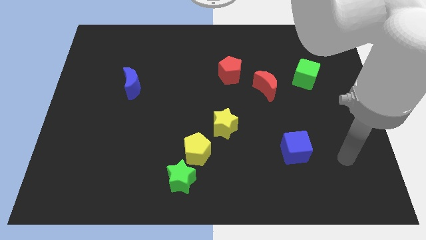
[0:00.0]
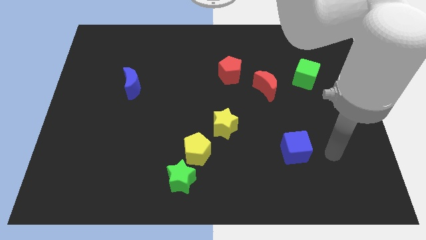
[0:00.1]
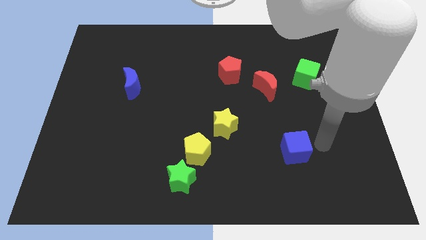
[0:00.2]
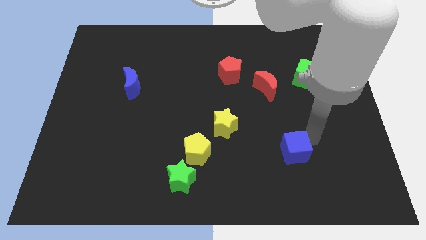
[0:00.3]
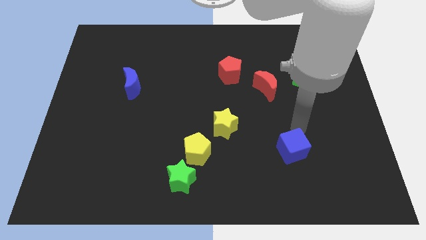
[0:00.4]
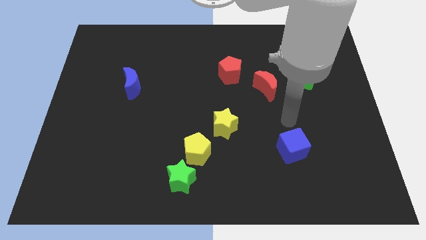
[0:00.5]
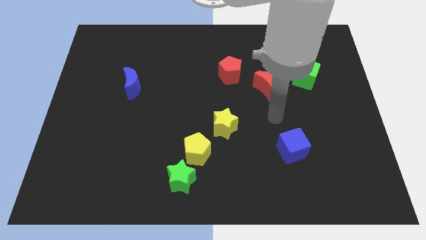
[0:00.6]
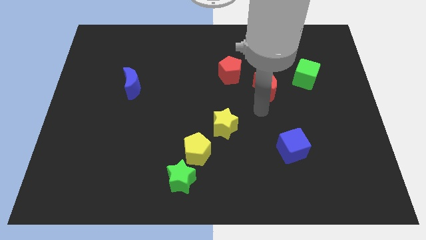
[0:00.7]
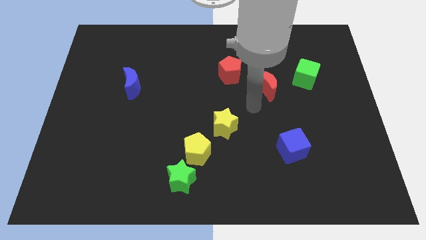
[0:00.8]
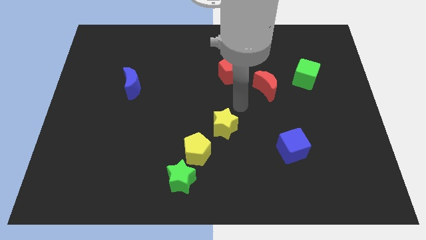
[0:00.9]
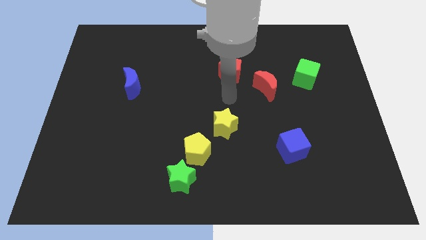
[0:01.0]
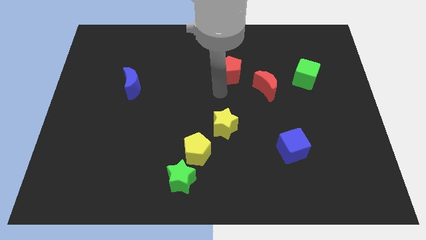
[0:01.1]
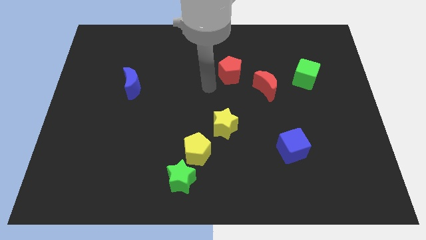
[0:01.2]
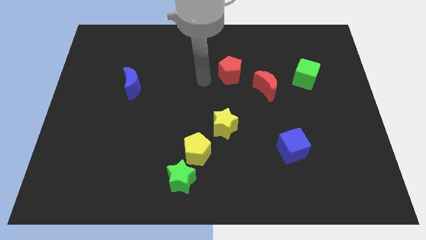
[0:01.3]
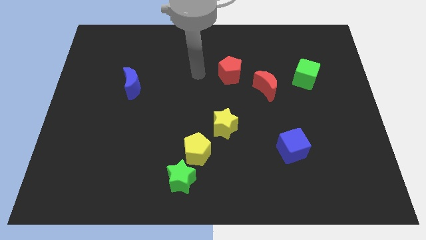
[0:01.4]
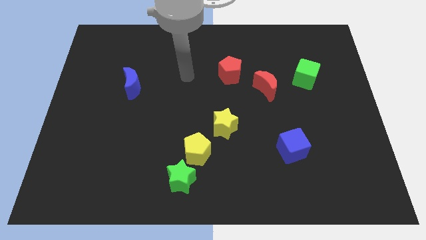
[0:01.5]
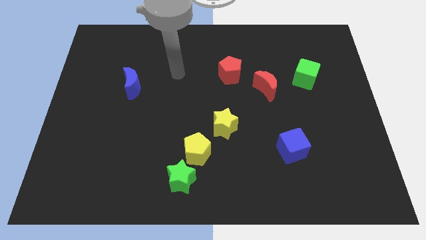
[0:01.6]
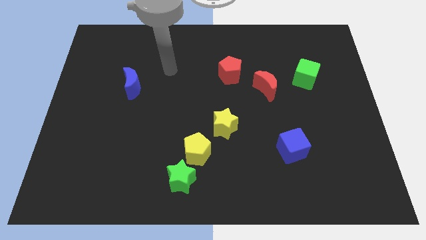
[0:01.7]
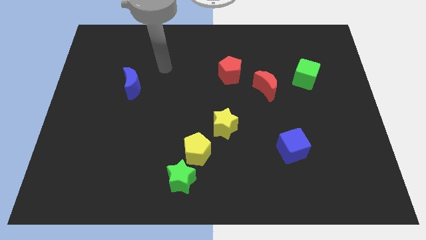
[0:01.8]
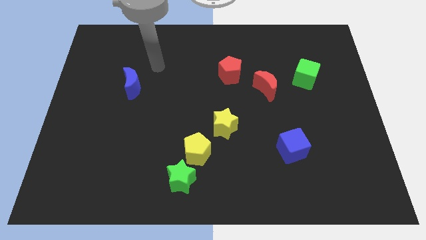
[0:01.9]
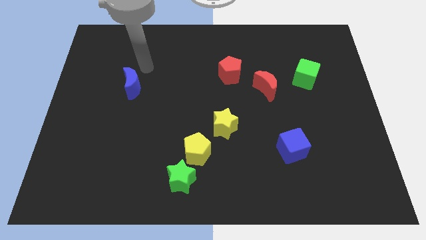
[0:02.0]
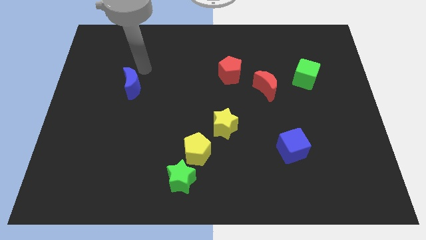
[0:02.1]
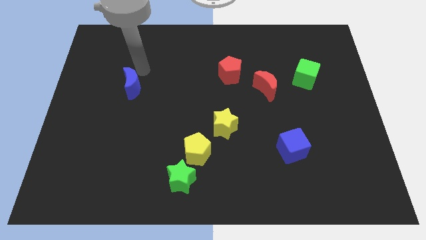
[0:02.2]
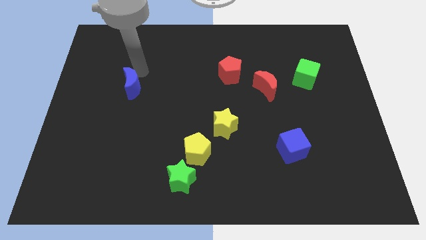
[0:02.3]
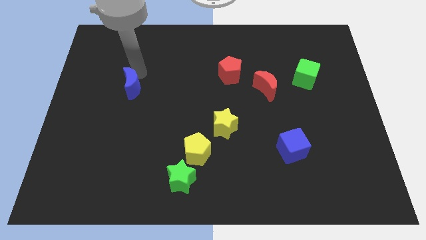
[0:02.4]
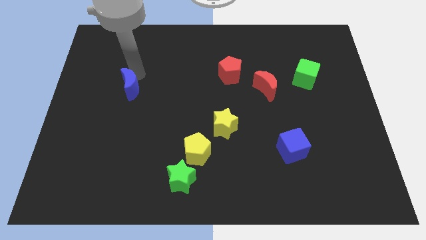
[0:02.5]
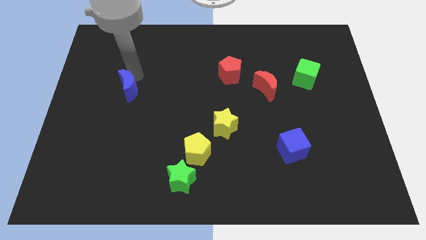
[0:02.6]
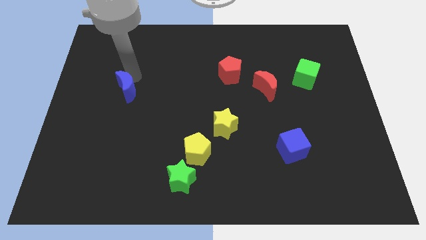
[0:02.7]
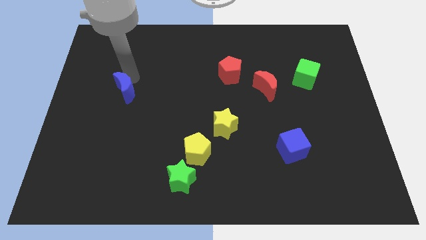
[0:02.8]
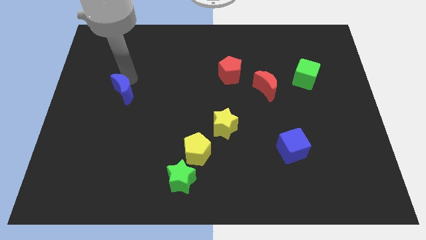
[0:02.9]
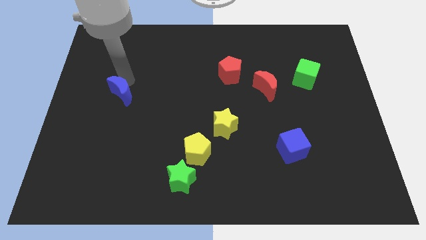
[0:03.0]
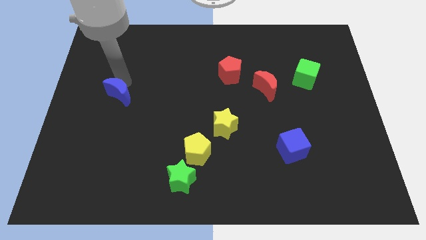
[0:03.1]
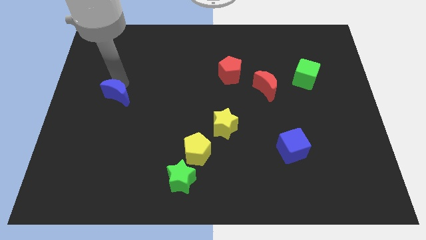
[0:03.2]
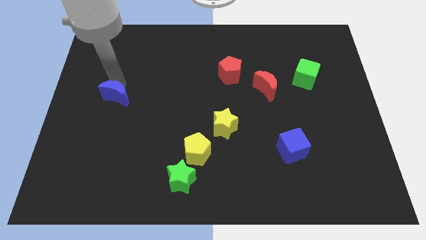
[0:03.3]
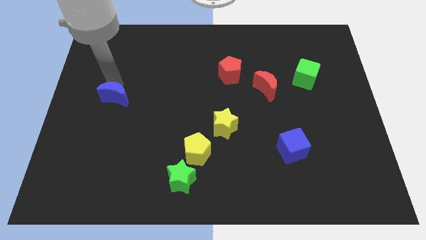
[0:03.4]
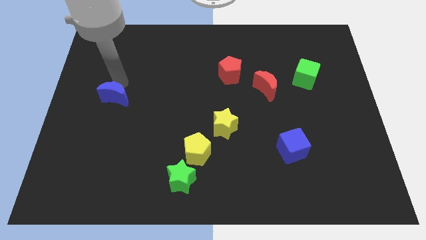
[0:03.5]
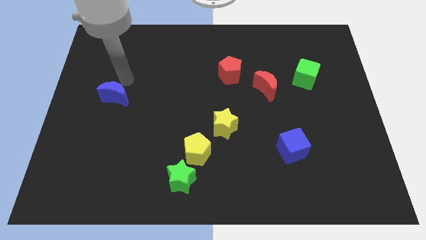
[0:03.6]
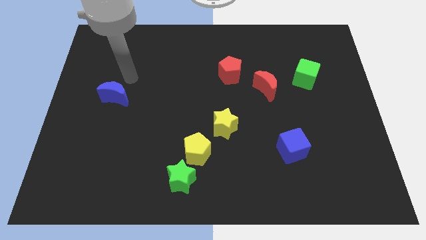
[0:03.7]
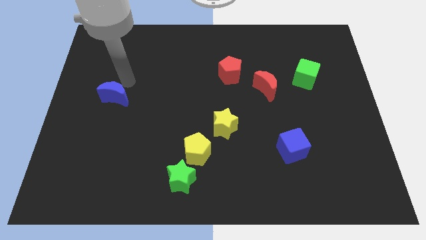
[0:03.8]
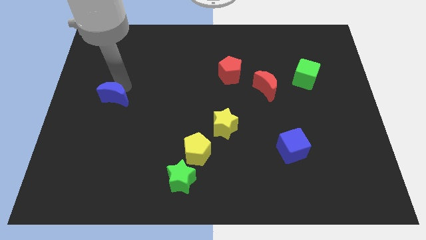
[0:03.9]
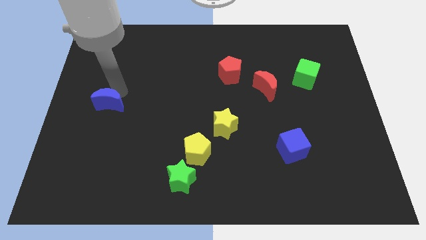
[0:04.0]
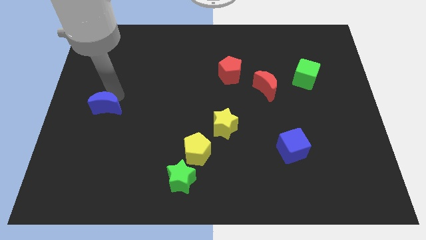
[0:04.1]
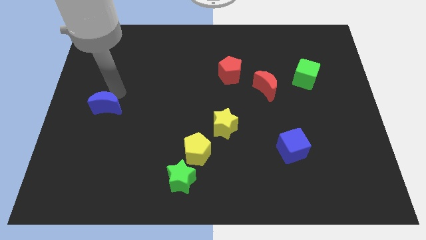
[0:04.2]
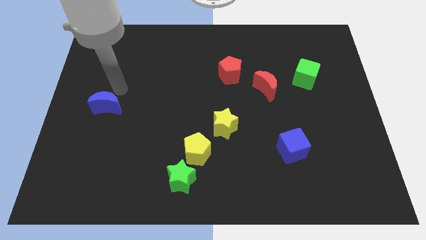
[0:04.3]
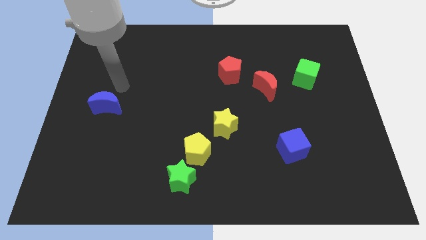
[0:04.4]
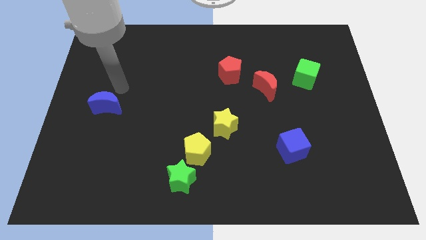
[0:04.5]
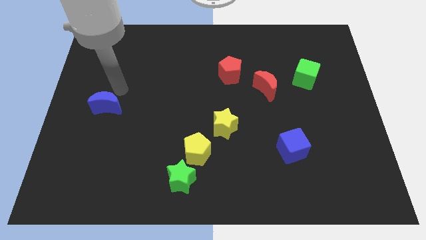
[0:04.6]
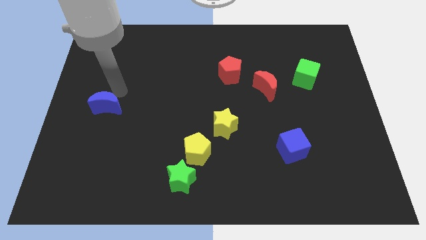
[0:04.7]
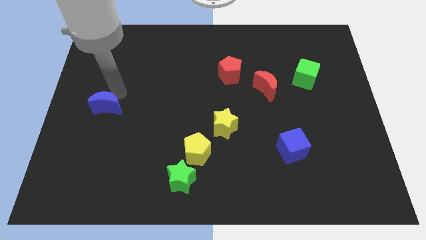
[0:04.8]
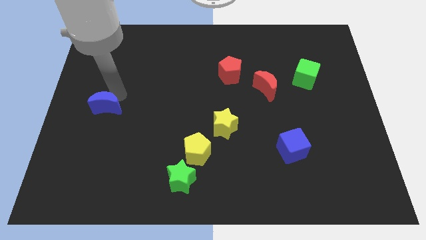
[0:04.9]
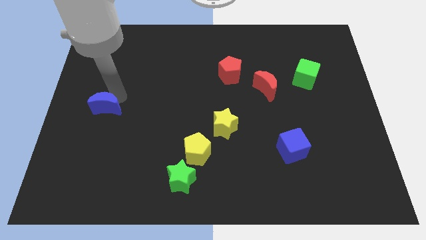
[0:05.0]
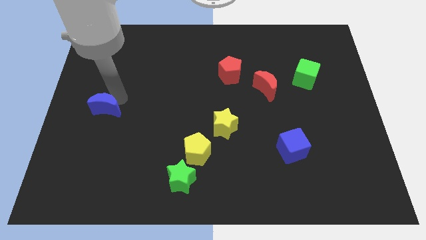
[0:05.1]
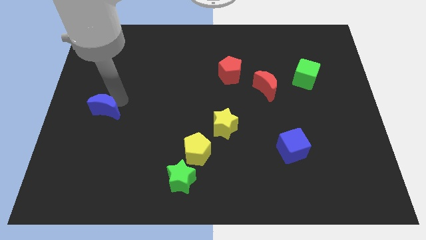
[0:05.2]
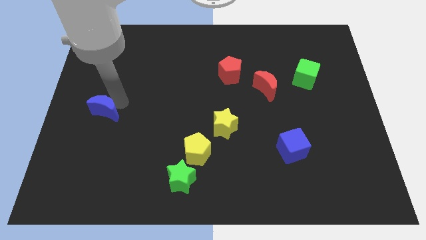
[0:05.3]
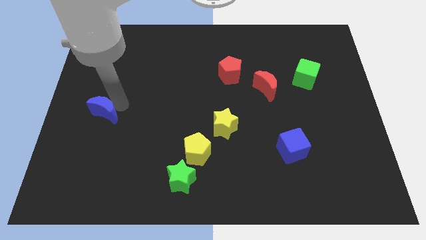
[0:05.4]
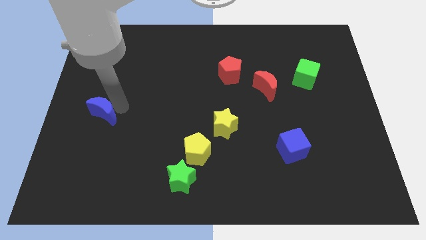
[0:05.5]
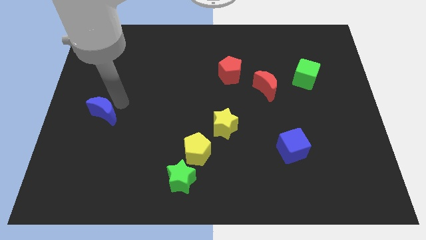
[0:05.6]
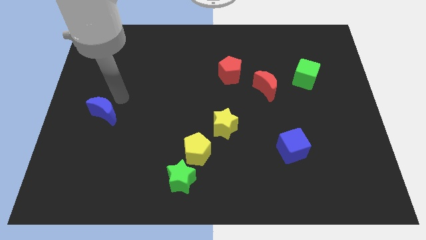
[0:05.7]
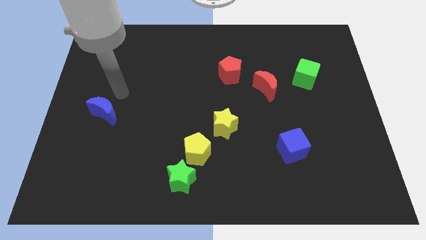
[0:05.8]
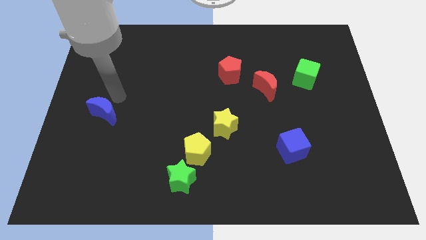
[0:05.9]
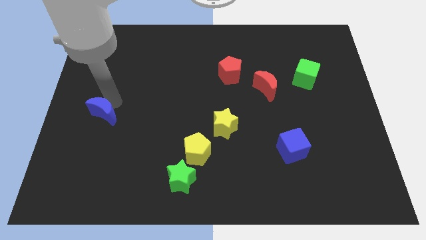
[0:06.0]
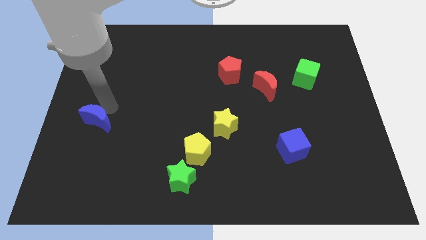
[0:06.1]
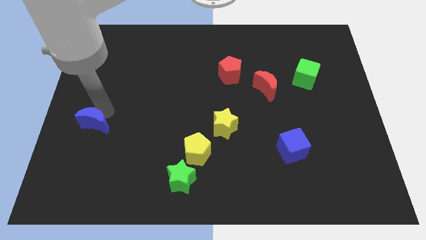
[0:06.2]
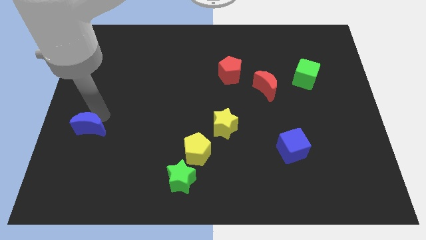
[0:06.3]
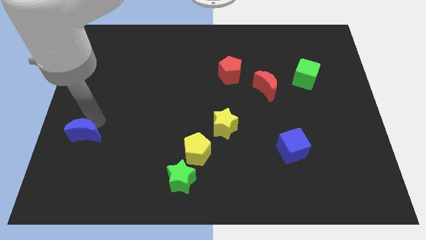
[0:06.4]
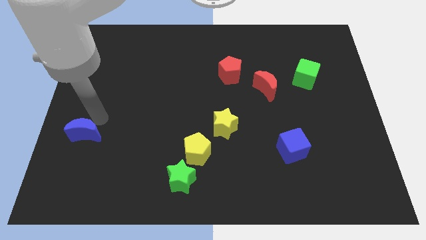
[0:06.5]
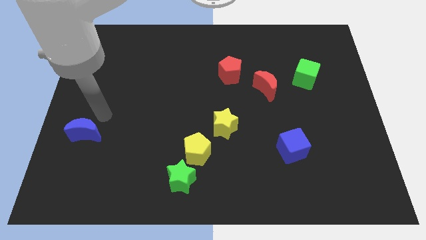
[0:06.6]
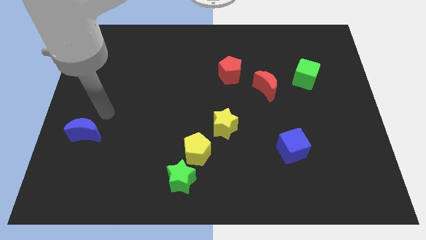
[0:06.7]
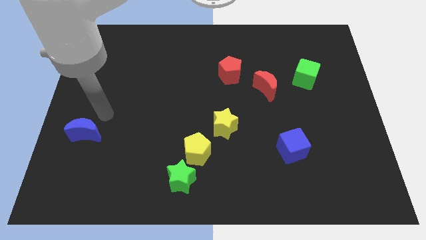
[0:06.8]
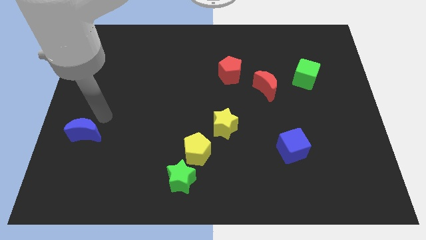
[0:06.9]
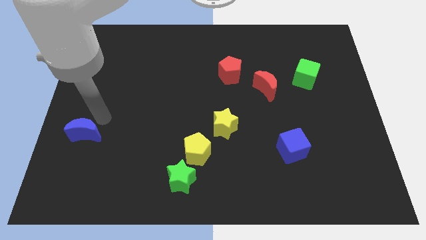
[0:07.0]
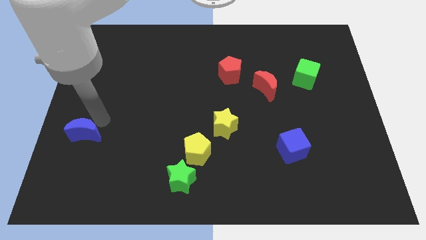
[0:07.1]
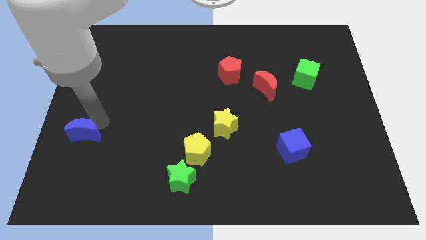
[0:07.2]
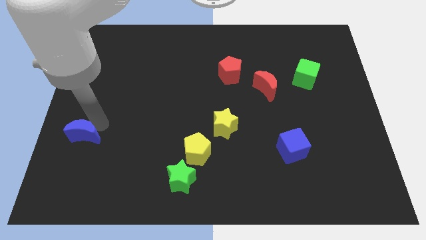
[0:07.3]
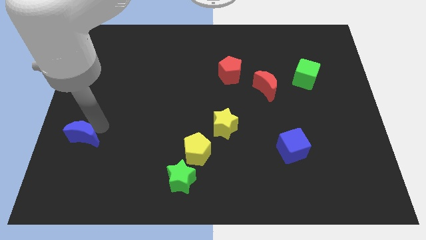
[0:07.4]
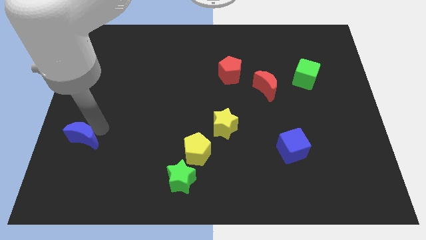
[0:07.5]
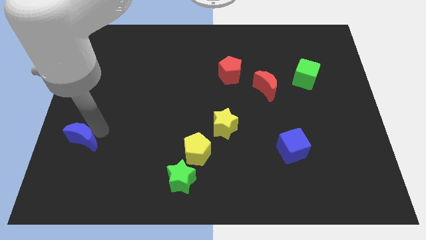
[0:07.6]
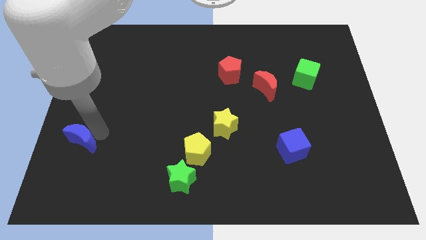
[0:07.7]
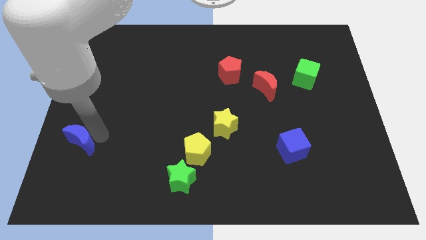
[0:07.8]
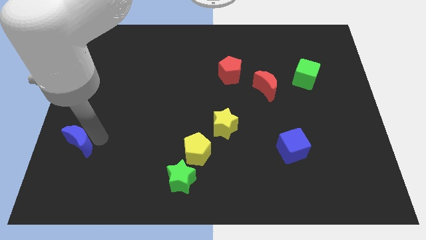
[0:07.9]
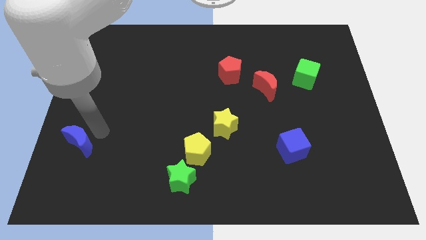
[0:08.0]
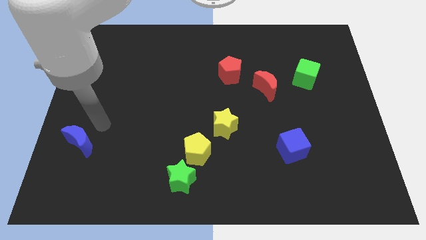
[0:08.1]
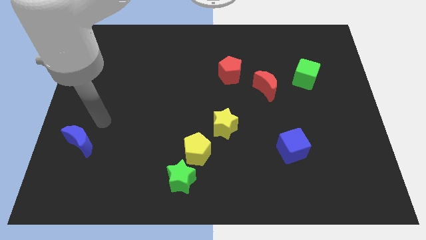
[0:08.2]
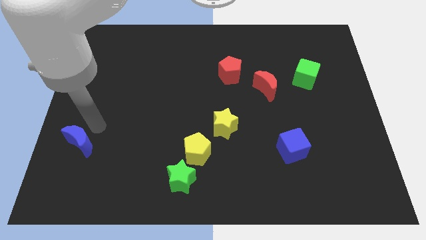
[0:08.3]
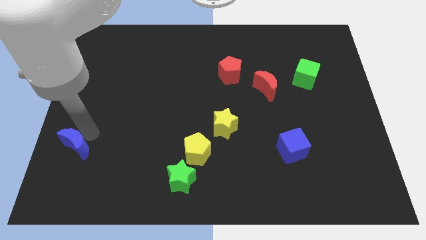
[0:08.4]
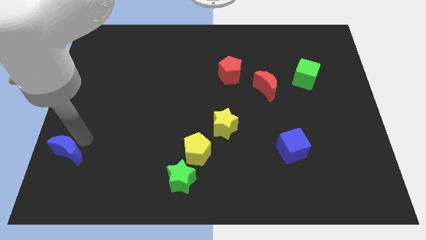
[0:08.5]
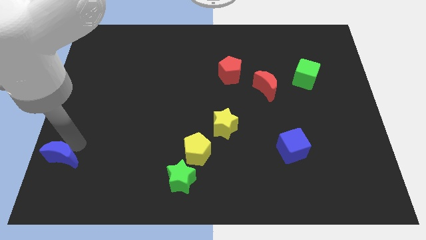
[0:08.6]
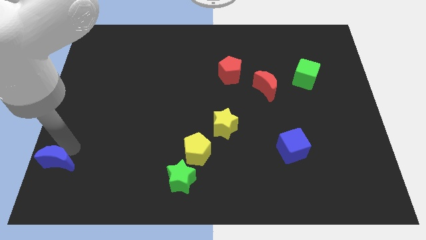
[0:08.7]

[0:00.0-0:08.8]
put the blue moon to the bottom left
